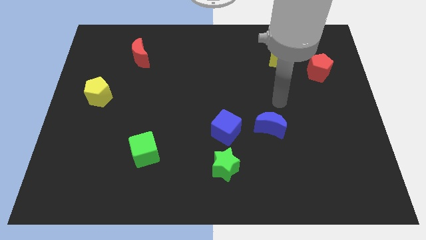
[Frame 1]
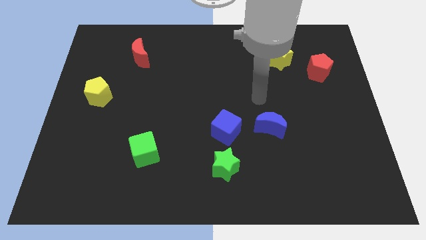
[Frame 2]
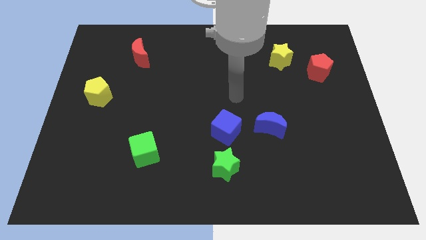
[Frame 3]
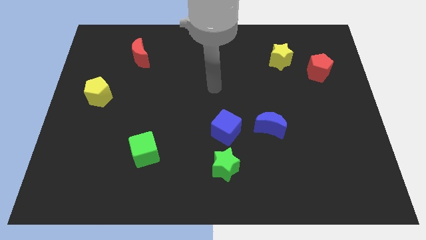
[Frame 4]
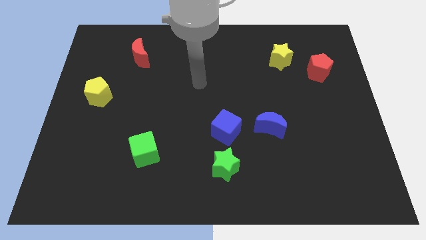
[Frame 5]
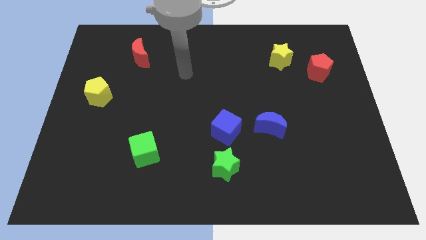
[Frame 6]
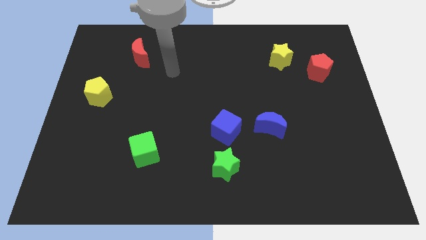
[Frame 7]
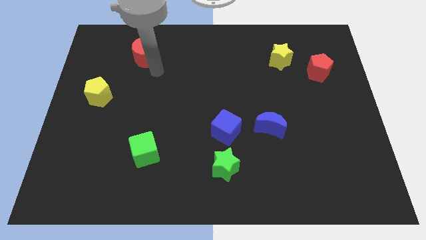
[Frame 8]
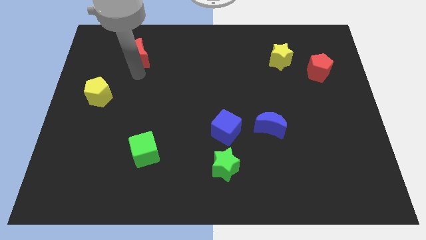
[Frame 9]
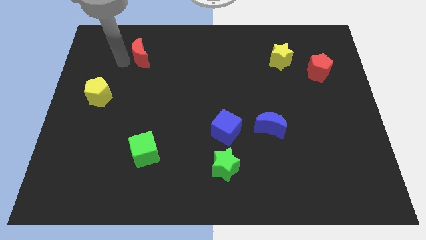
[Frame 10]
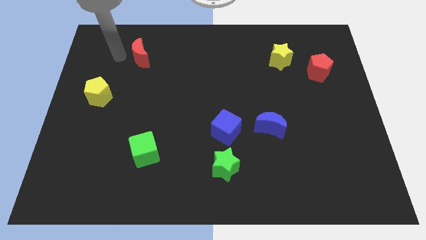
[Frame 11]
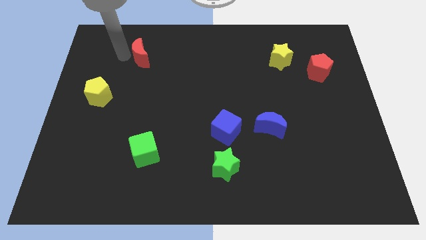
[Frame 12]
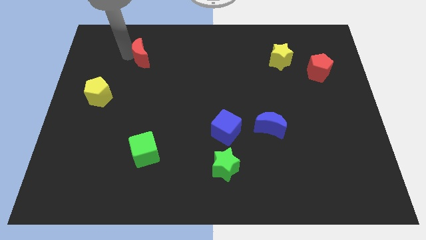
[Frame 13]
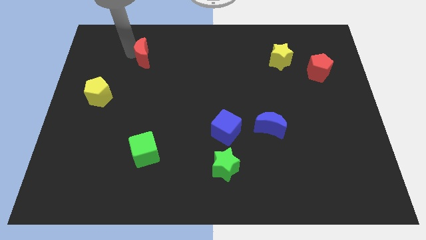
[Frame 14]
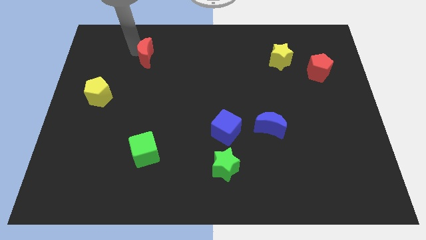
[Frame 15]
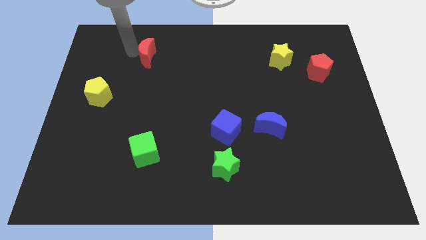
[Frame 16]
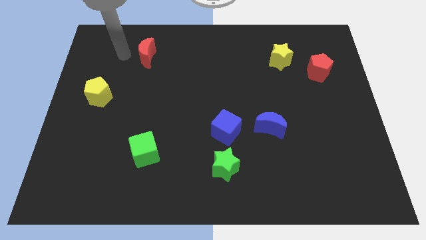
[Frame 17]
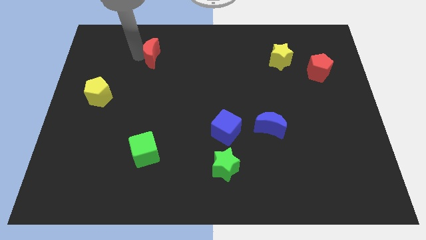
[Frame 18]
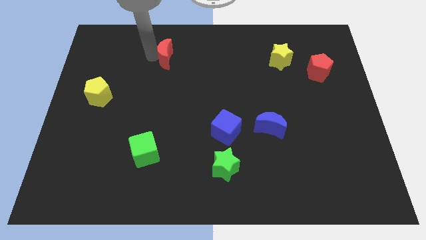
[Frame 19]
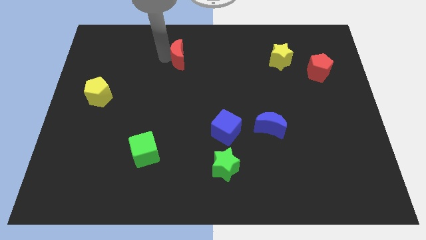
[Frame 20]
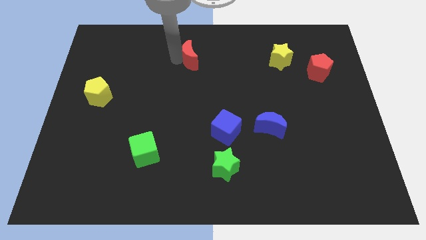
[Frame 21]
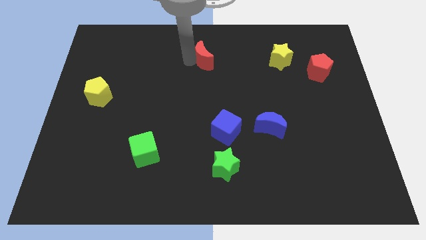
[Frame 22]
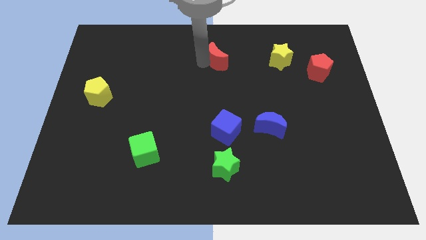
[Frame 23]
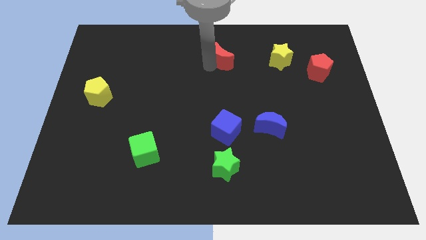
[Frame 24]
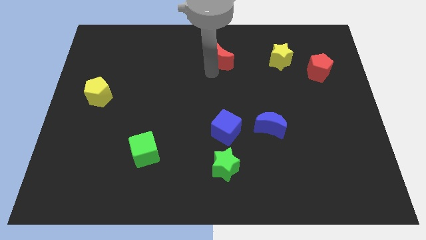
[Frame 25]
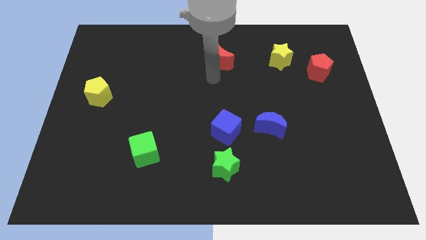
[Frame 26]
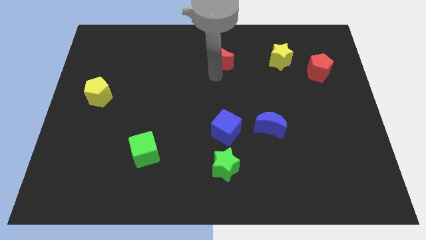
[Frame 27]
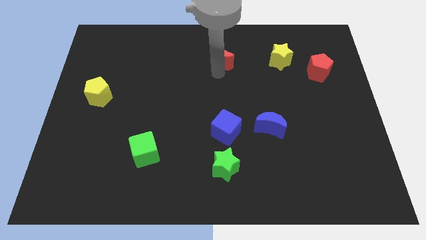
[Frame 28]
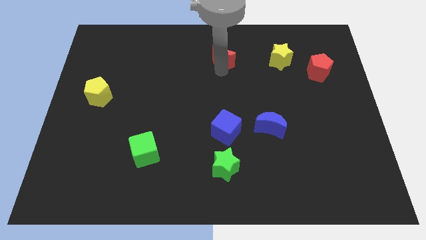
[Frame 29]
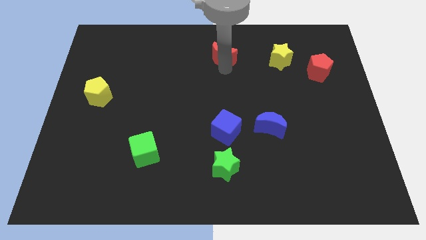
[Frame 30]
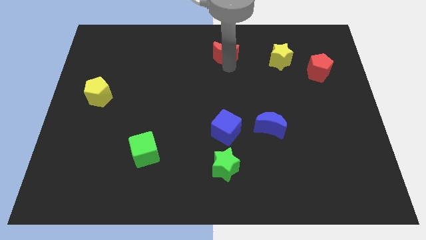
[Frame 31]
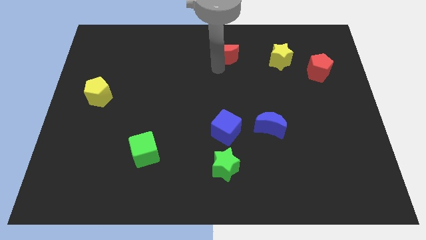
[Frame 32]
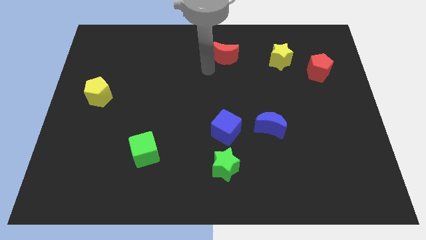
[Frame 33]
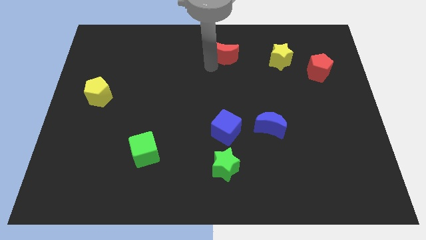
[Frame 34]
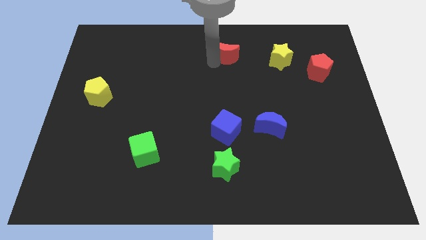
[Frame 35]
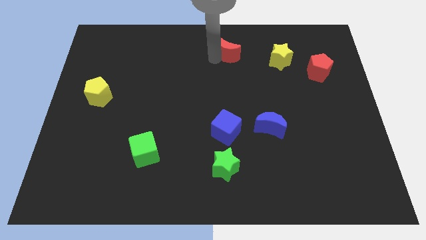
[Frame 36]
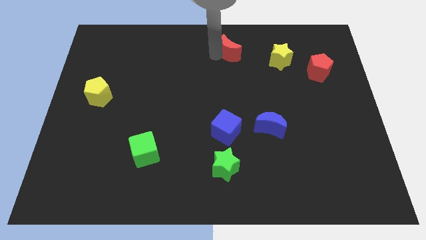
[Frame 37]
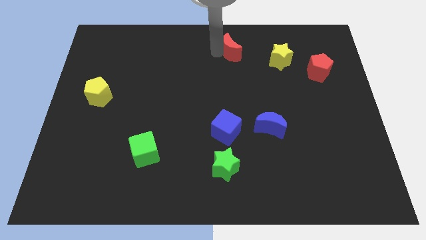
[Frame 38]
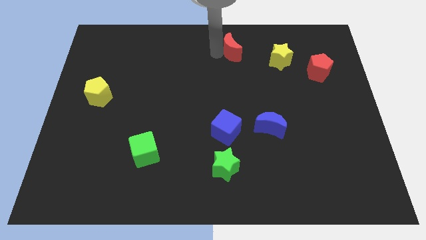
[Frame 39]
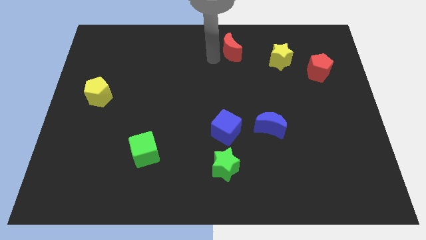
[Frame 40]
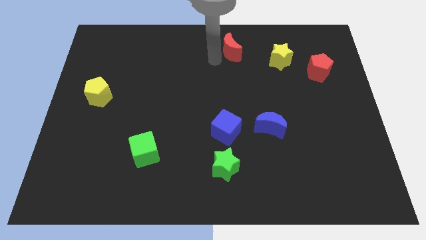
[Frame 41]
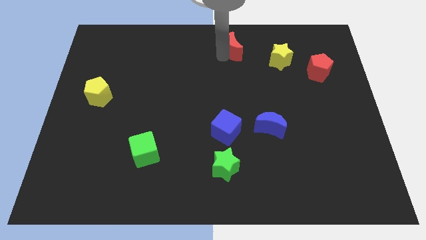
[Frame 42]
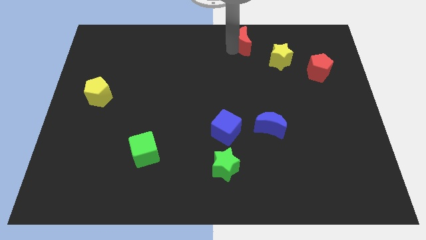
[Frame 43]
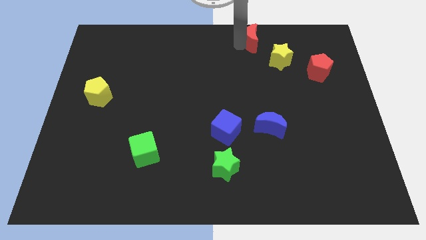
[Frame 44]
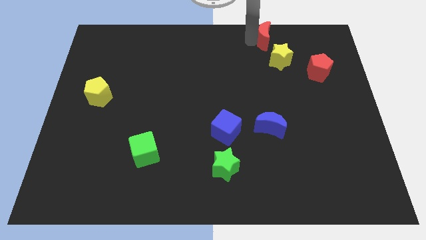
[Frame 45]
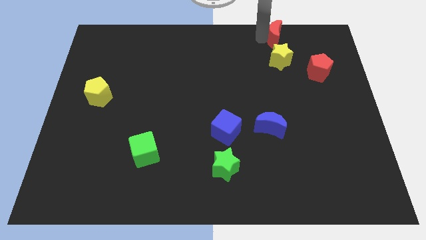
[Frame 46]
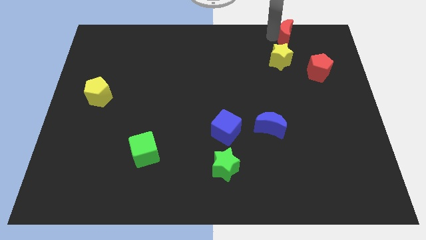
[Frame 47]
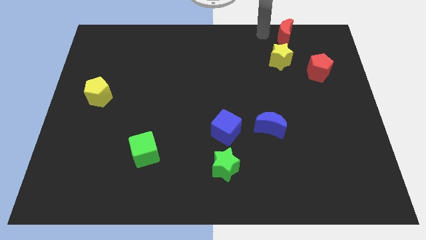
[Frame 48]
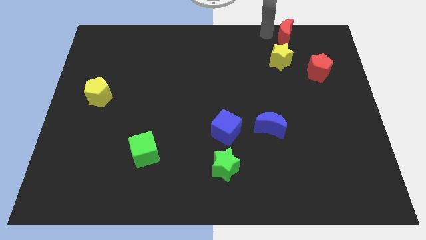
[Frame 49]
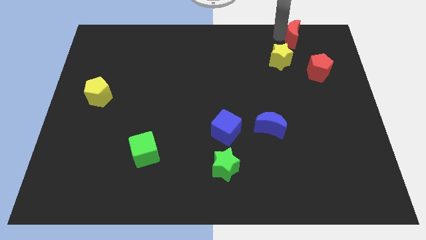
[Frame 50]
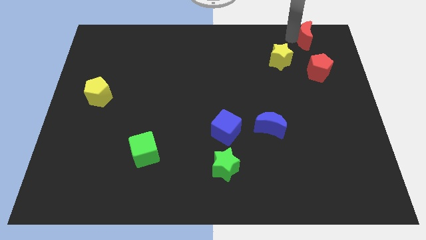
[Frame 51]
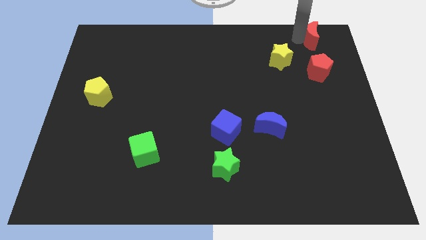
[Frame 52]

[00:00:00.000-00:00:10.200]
move the red moon to the top right
